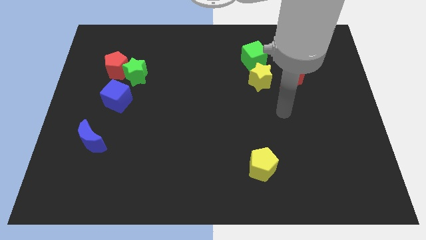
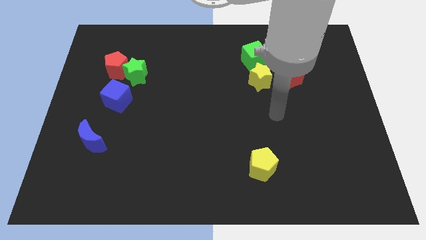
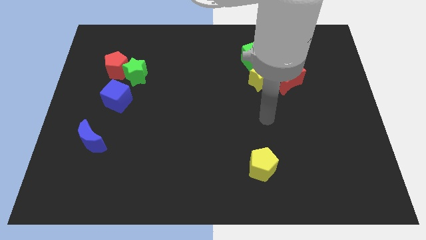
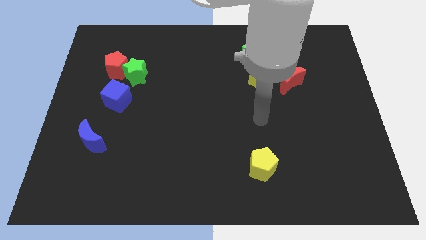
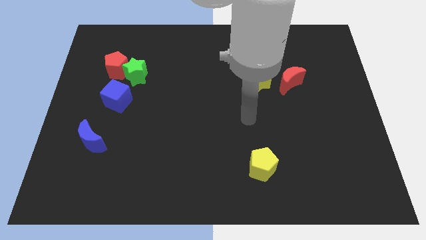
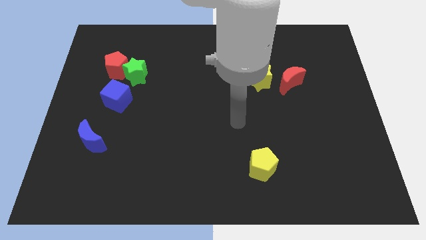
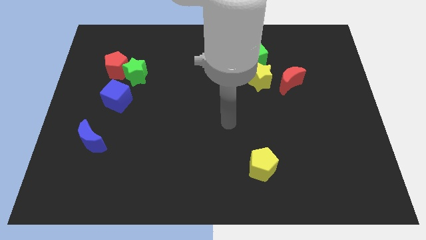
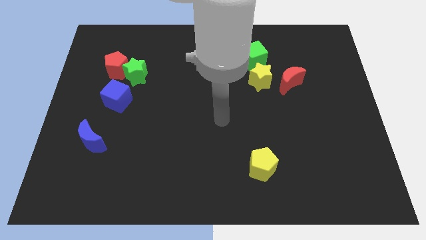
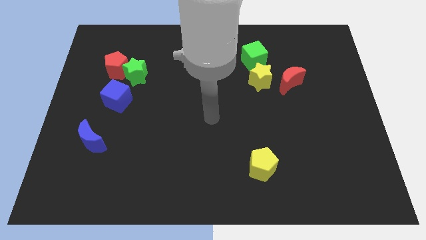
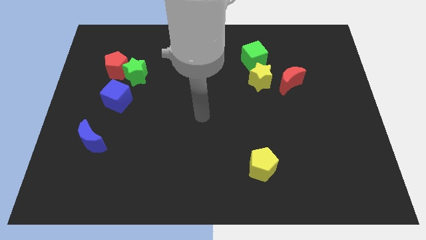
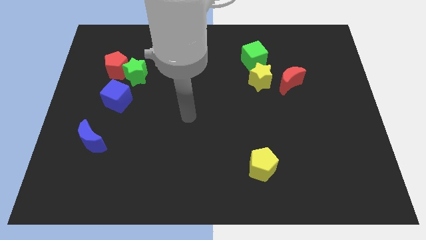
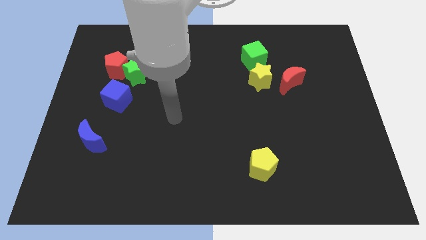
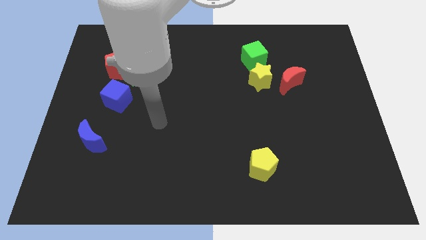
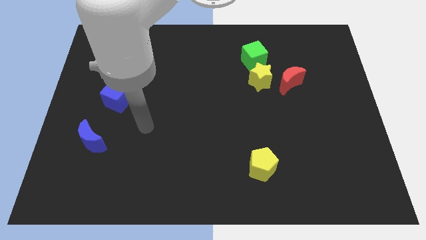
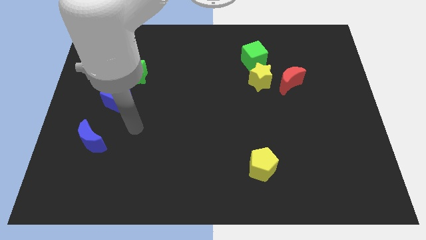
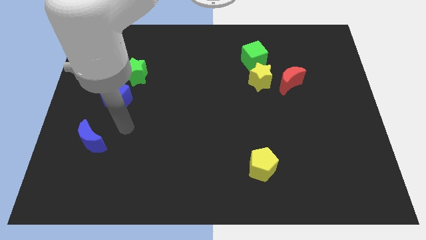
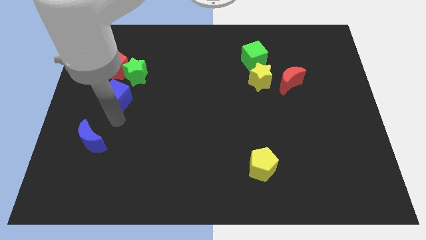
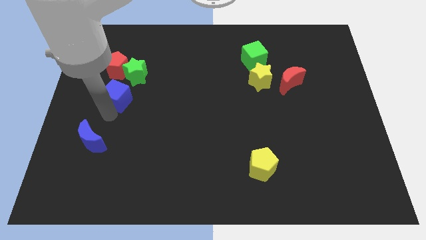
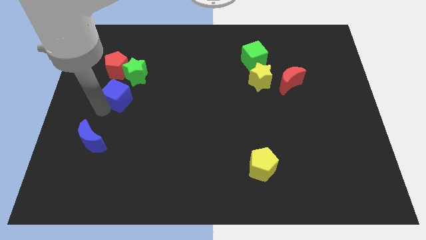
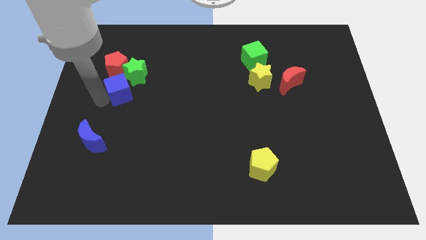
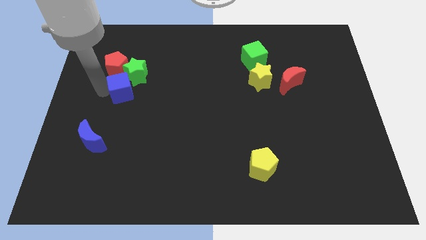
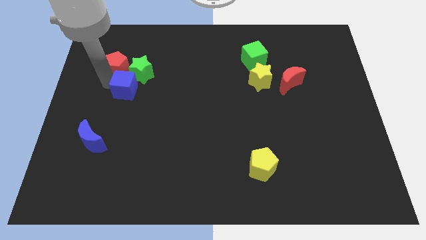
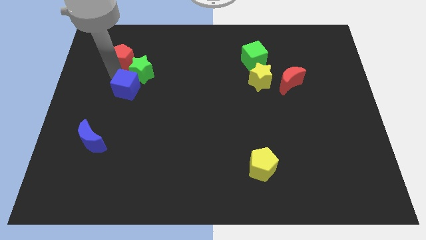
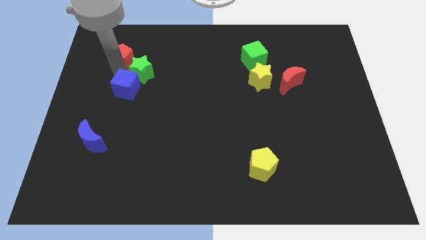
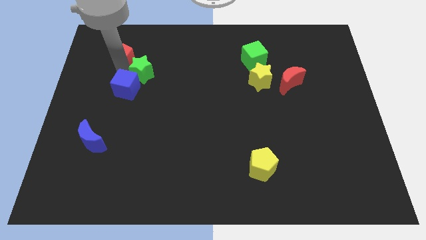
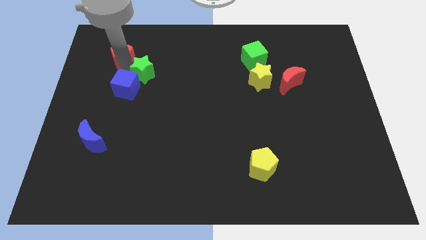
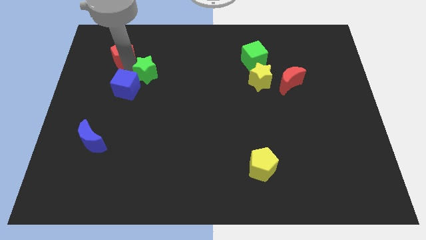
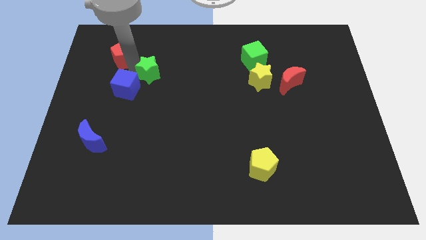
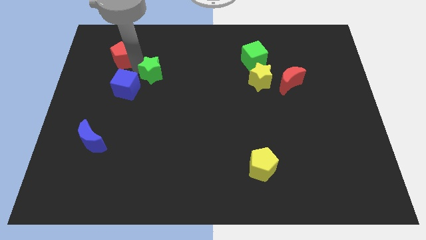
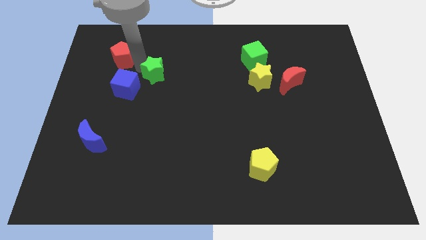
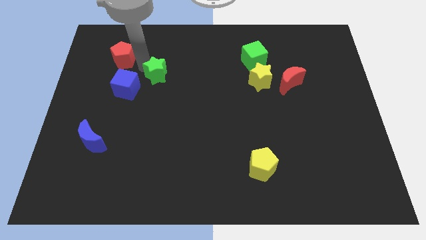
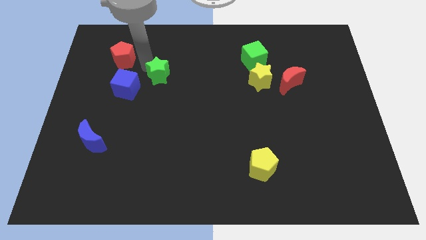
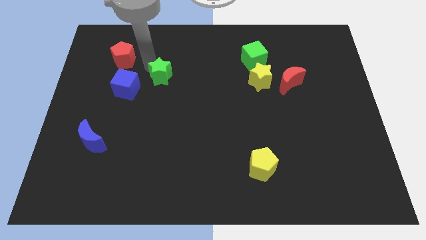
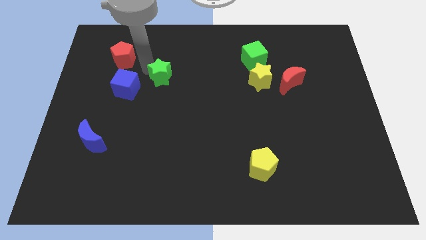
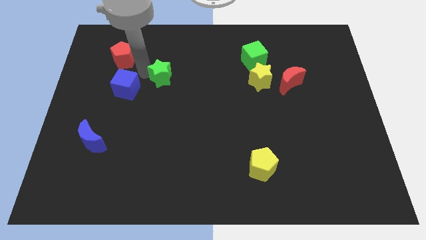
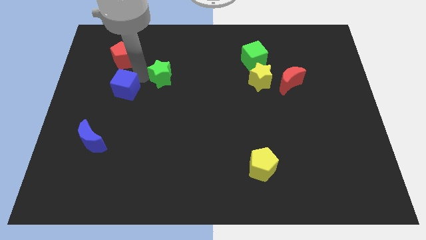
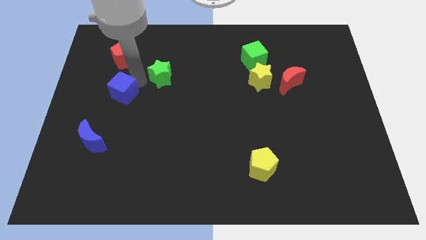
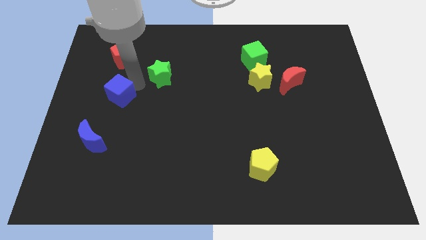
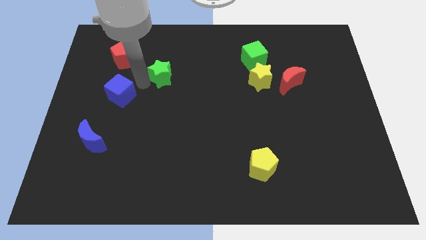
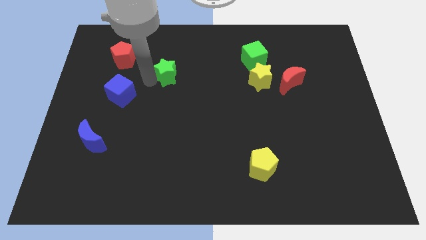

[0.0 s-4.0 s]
push the green star right somewhat

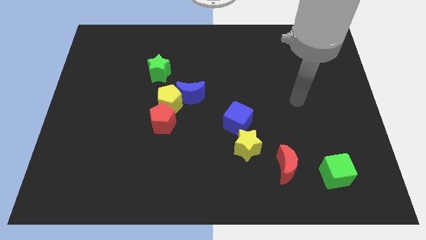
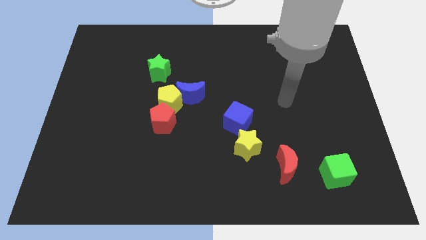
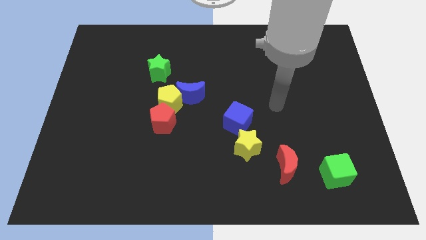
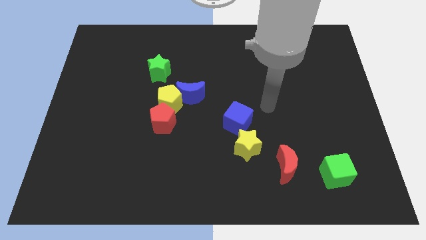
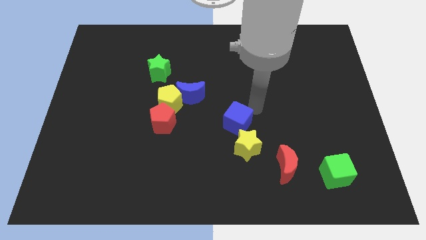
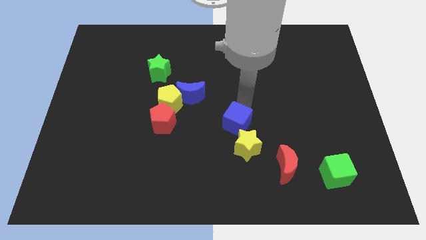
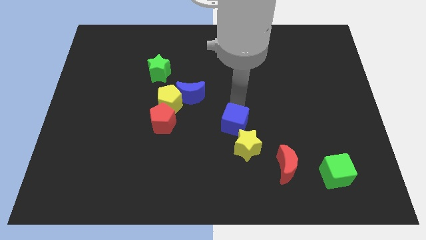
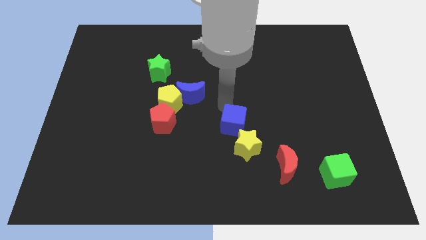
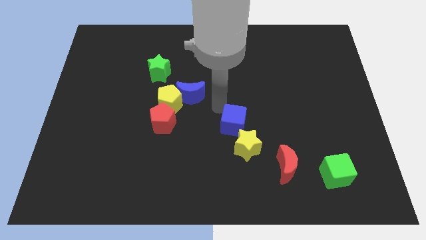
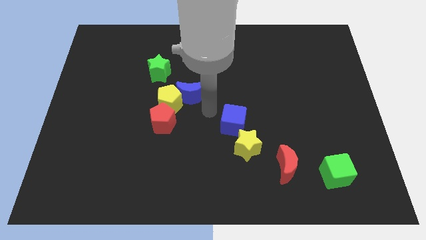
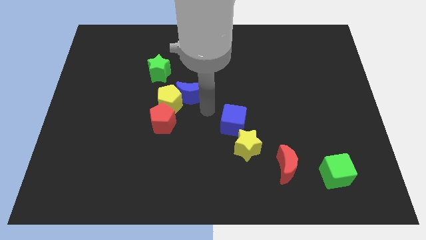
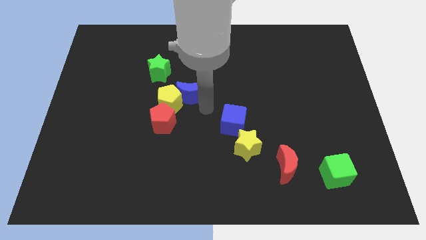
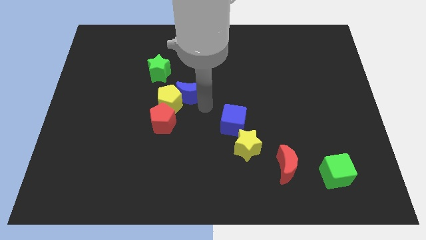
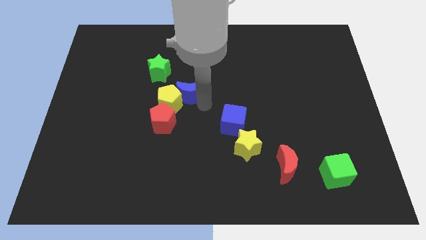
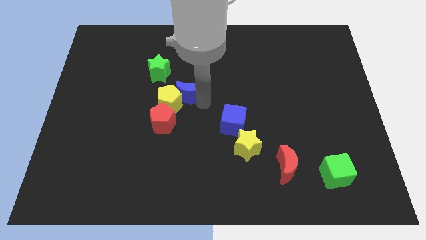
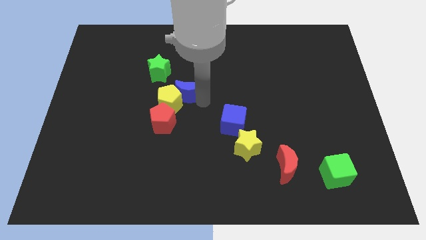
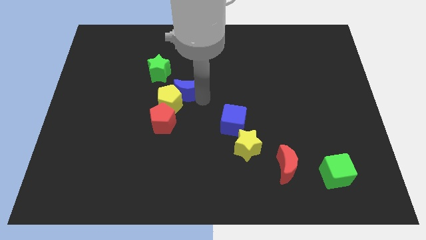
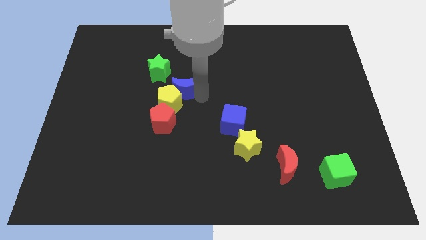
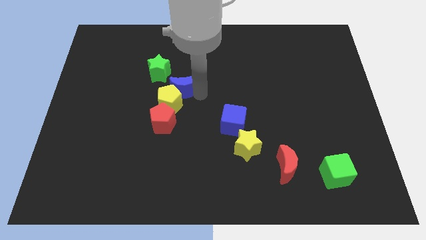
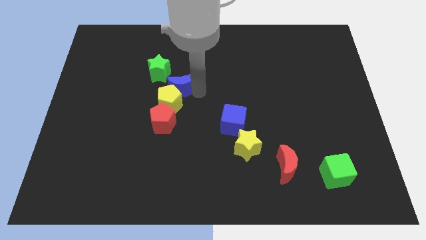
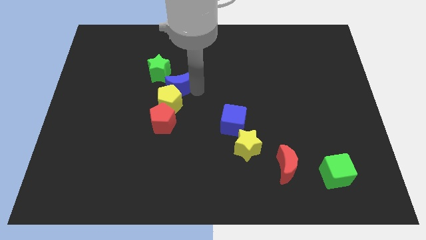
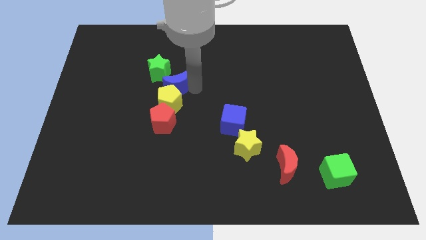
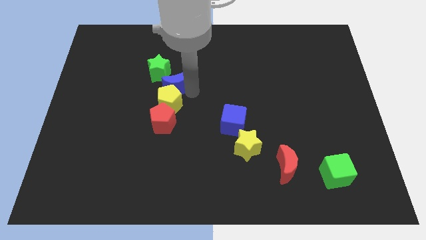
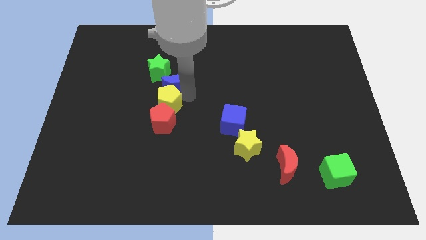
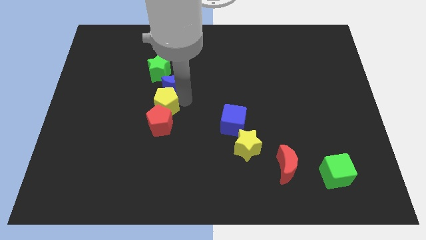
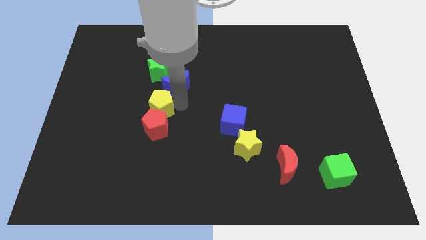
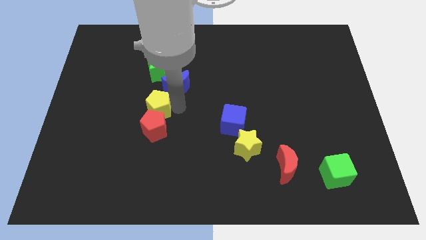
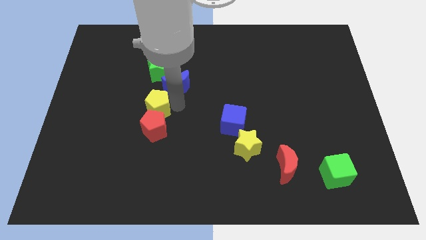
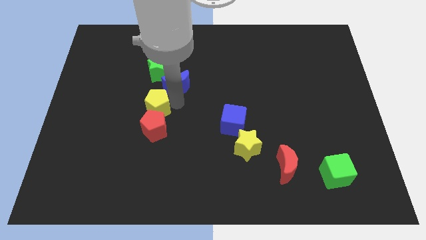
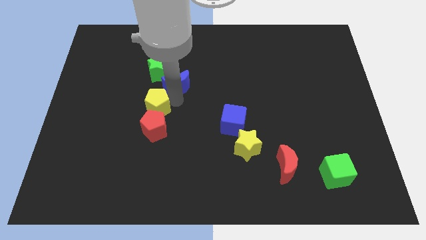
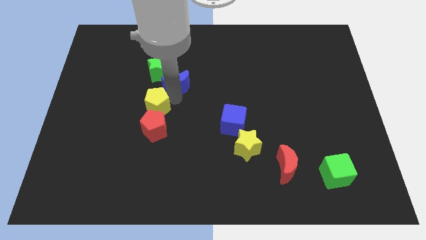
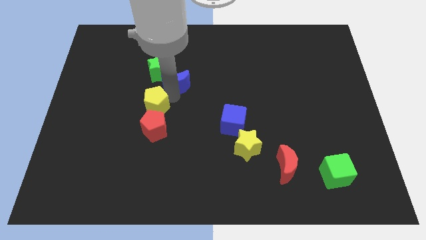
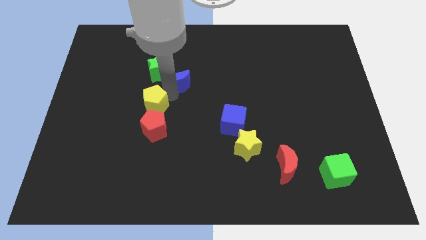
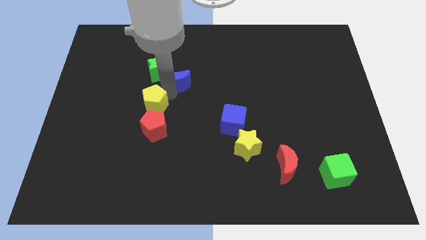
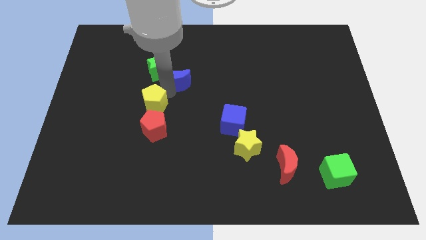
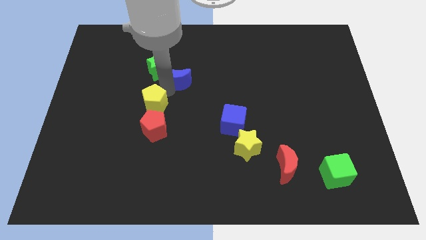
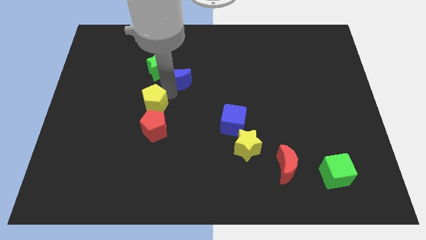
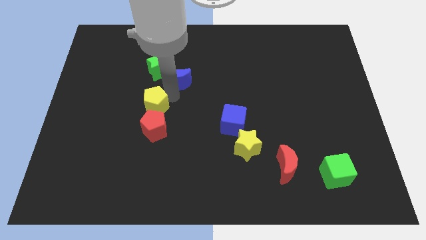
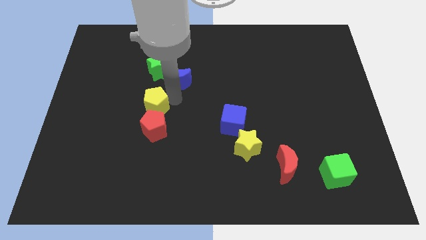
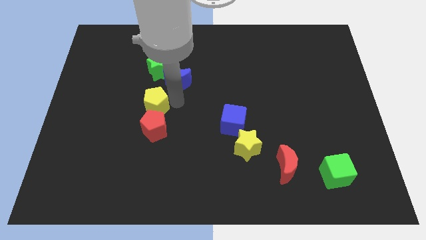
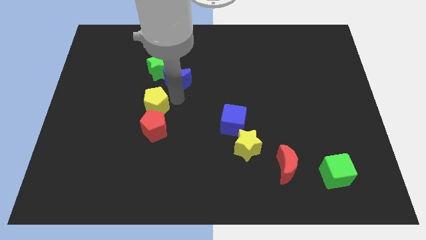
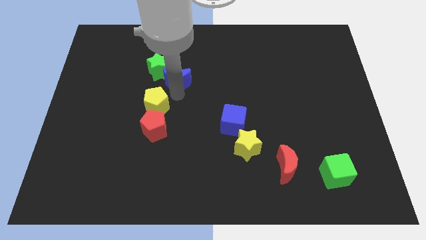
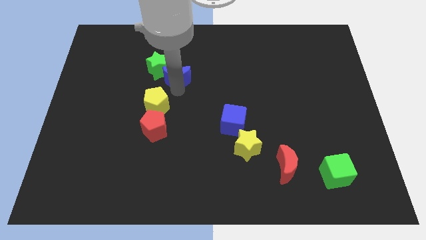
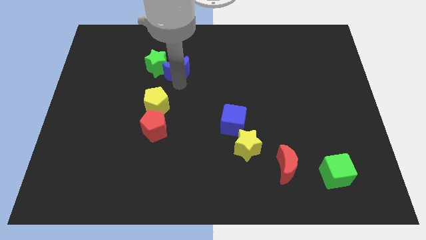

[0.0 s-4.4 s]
slide the blue moon a bit up and to the left

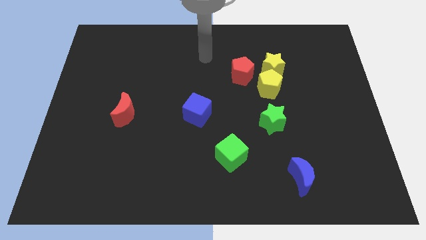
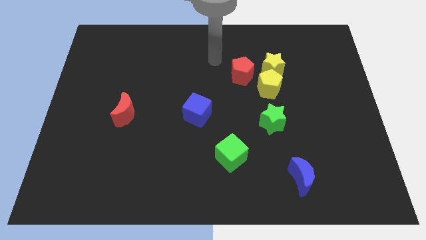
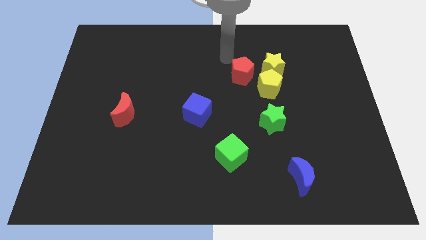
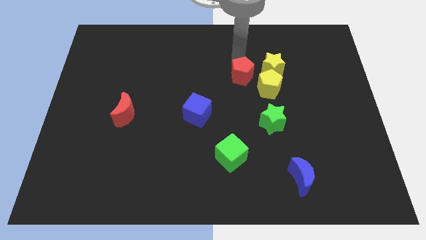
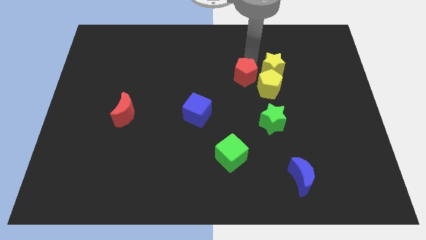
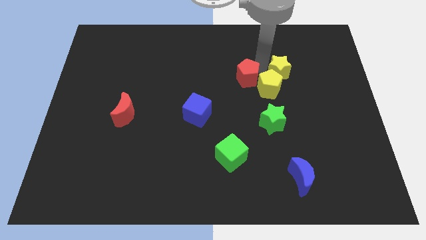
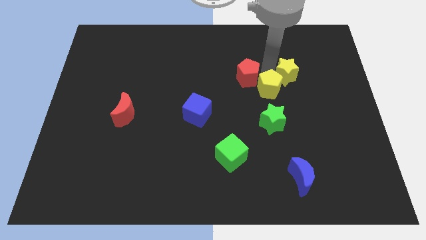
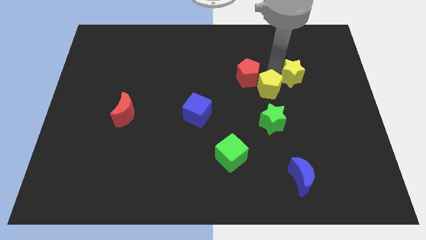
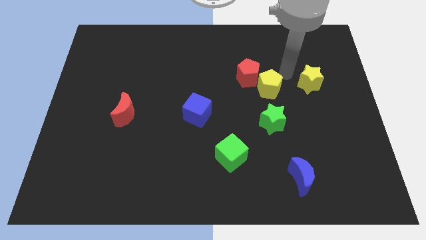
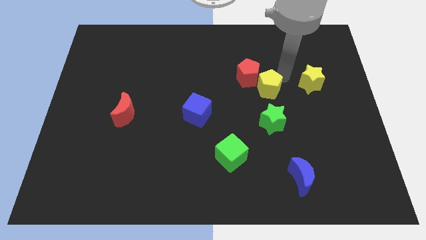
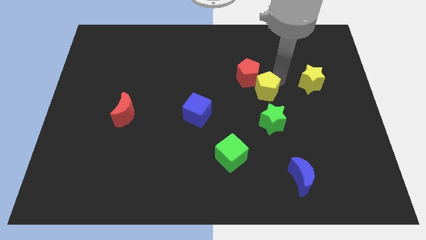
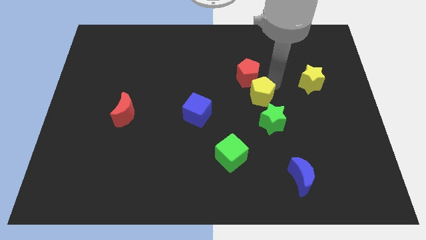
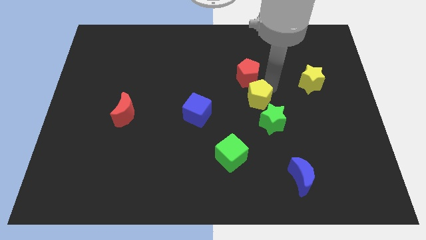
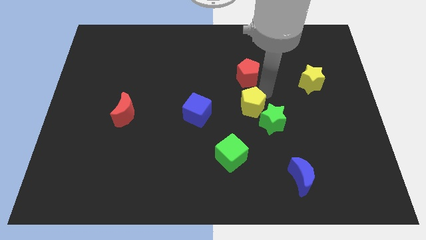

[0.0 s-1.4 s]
slide the yellow pentagon a little diagonally downwards and left
